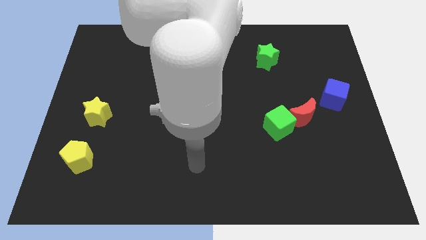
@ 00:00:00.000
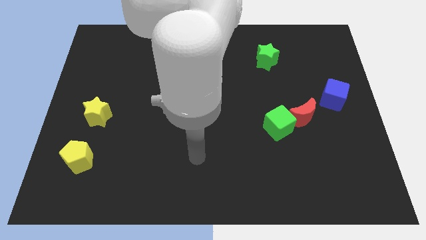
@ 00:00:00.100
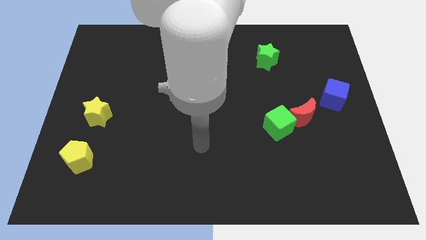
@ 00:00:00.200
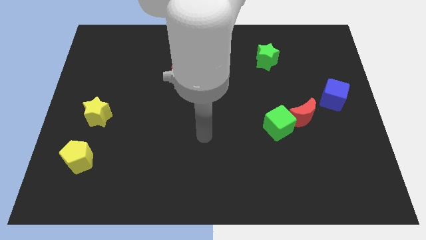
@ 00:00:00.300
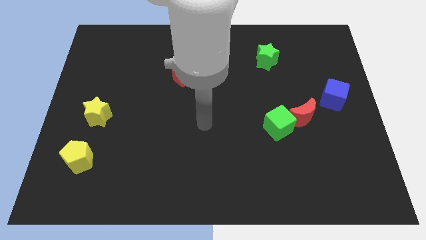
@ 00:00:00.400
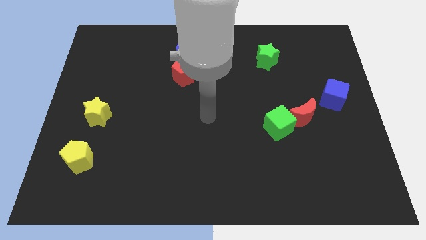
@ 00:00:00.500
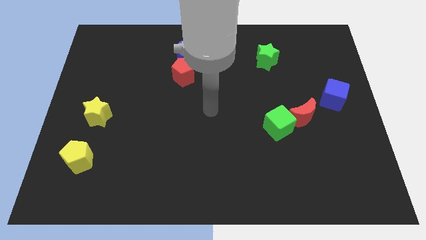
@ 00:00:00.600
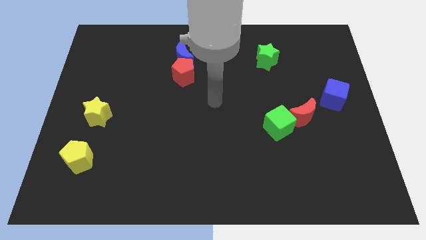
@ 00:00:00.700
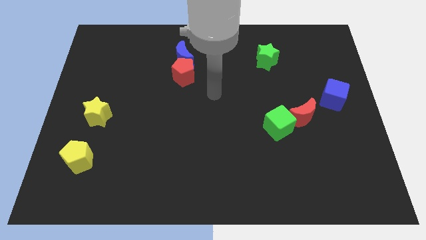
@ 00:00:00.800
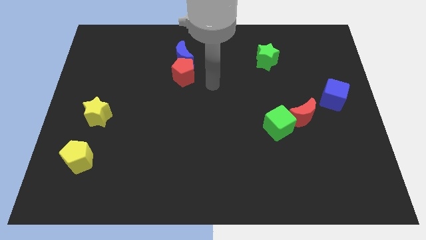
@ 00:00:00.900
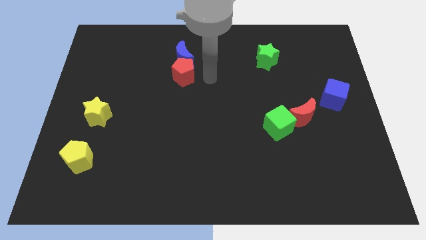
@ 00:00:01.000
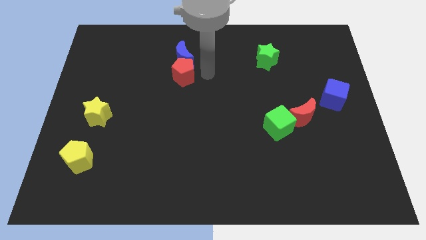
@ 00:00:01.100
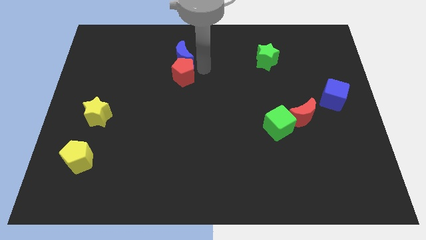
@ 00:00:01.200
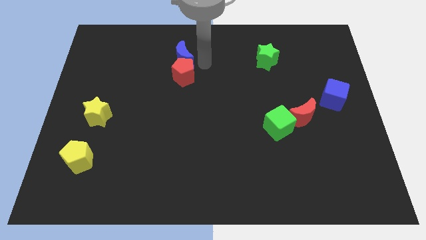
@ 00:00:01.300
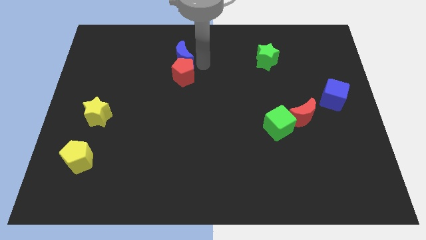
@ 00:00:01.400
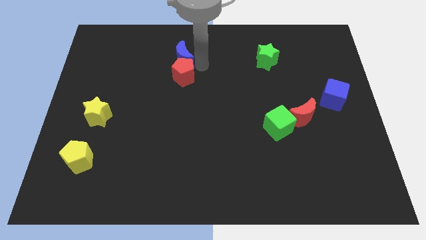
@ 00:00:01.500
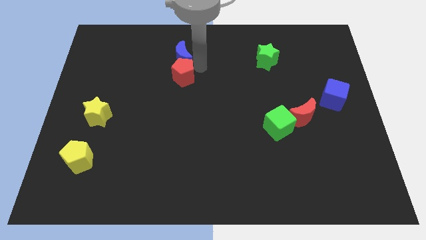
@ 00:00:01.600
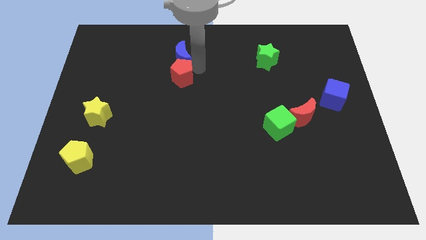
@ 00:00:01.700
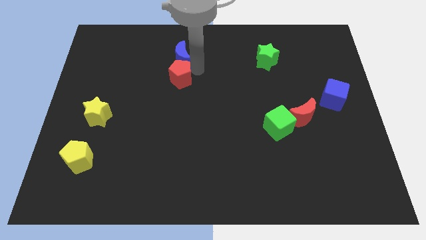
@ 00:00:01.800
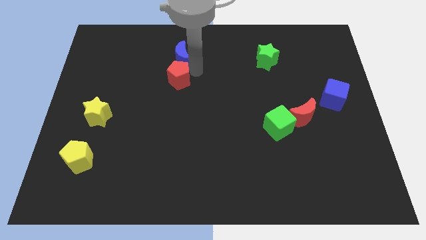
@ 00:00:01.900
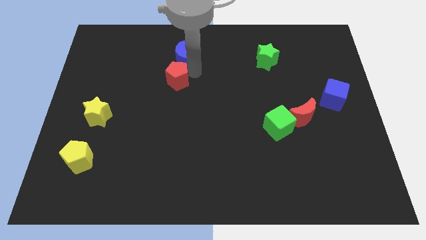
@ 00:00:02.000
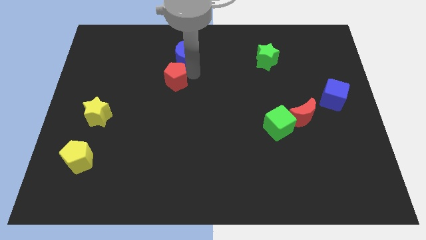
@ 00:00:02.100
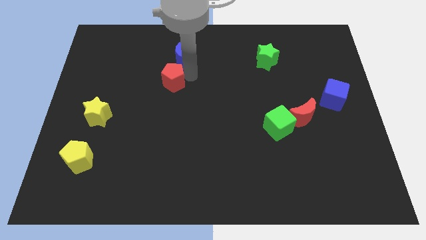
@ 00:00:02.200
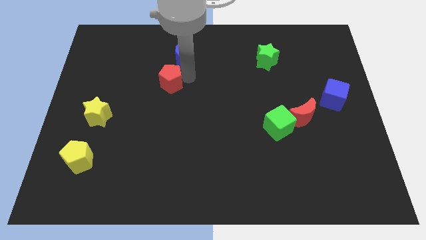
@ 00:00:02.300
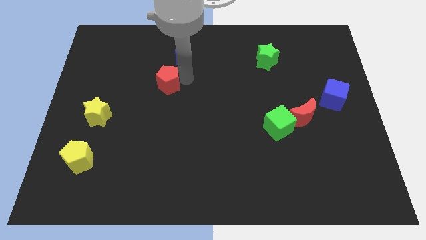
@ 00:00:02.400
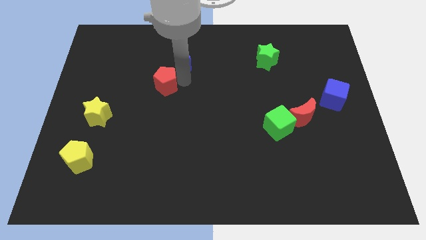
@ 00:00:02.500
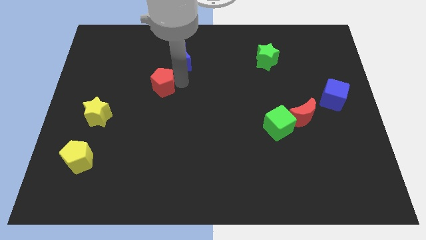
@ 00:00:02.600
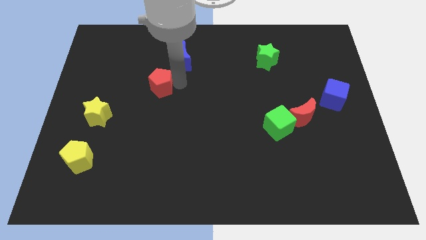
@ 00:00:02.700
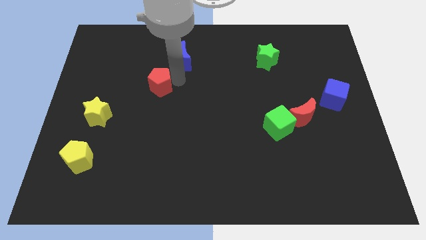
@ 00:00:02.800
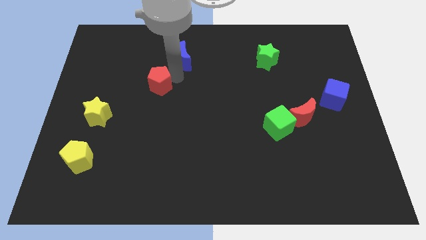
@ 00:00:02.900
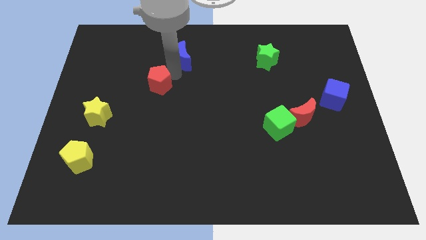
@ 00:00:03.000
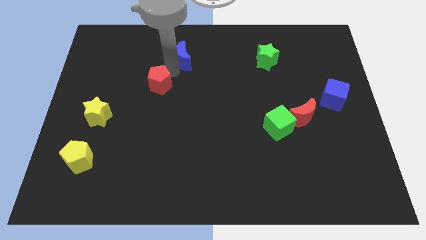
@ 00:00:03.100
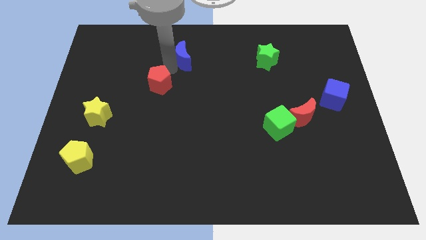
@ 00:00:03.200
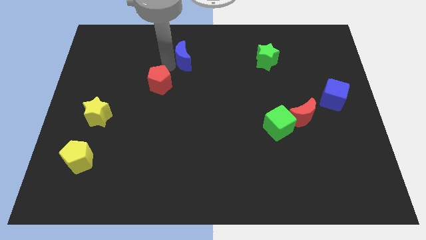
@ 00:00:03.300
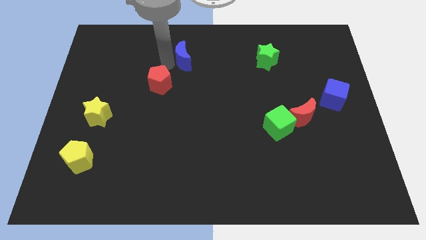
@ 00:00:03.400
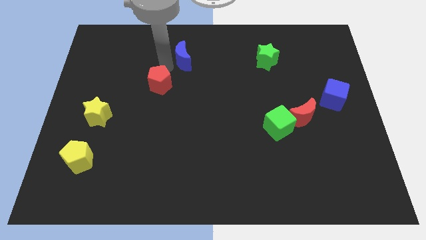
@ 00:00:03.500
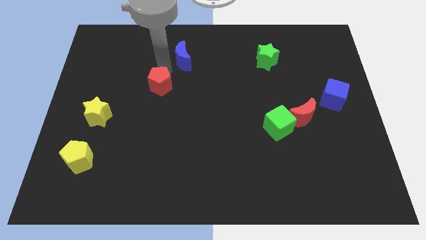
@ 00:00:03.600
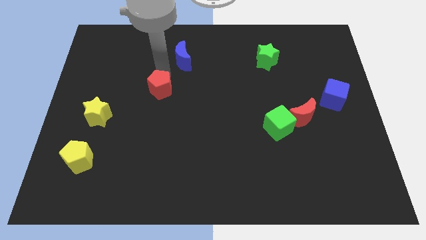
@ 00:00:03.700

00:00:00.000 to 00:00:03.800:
push the red pentagon downwards and left diagonally a little bit

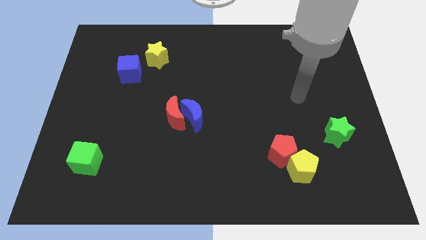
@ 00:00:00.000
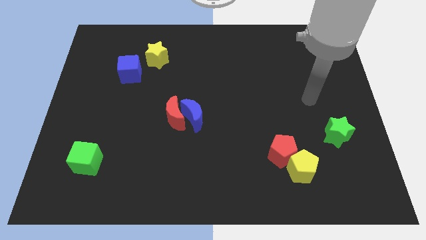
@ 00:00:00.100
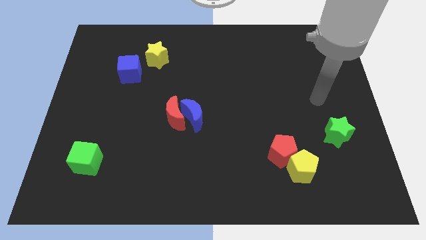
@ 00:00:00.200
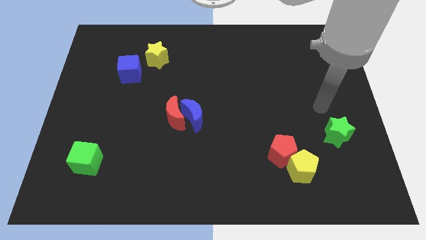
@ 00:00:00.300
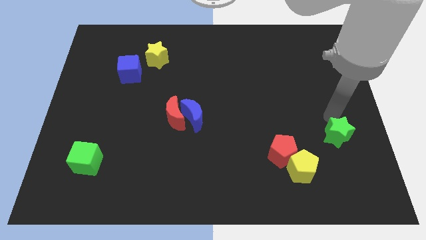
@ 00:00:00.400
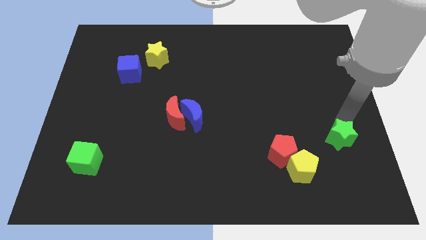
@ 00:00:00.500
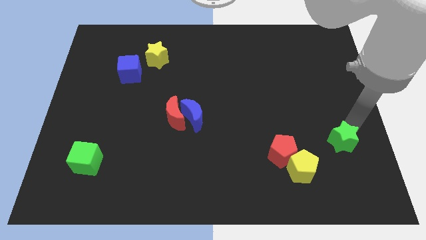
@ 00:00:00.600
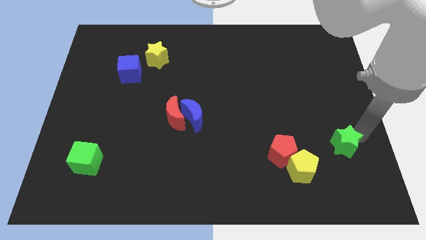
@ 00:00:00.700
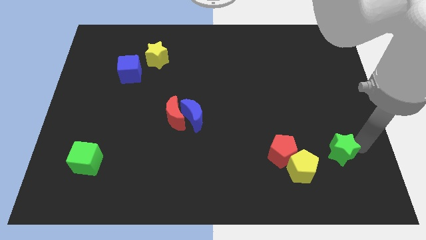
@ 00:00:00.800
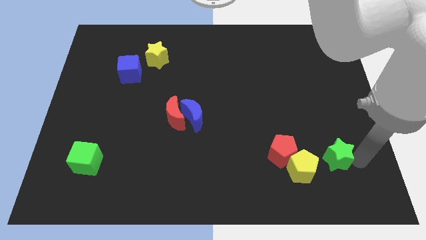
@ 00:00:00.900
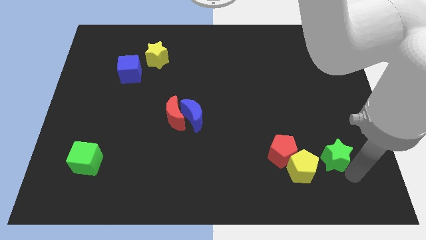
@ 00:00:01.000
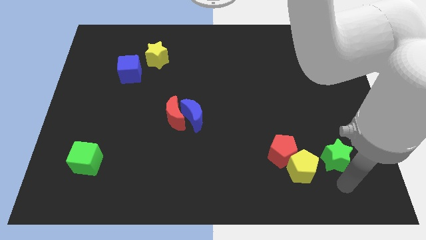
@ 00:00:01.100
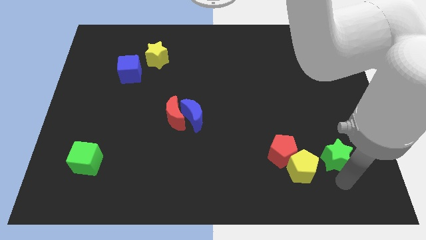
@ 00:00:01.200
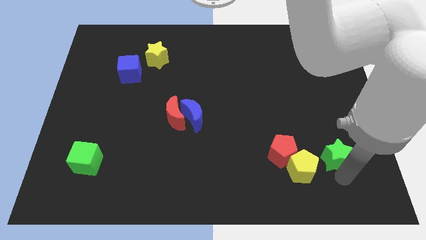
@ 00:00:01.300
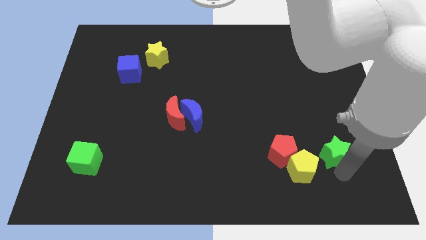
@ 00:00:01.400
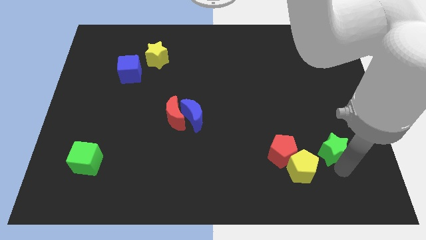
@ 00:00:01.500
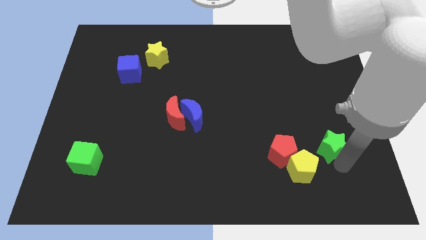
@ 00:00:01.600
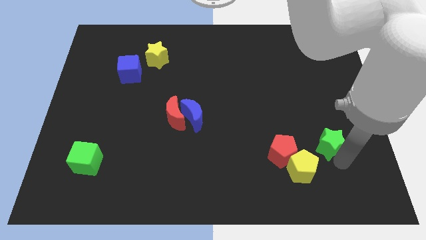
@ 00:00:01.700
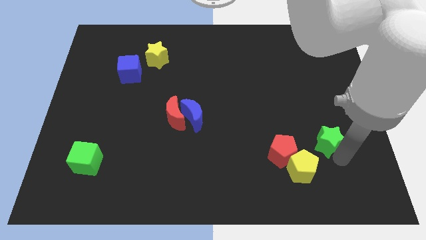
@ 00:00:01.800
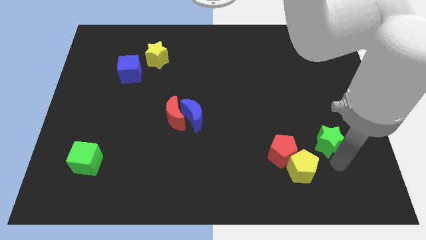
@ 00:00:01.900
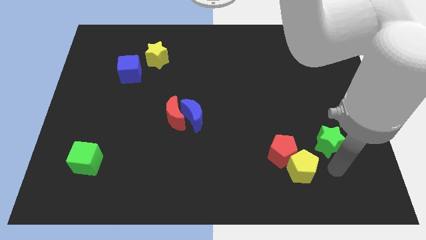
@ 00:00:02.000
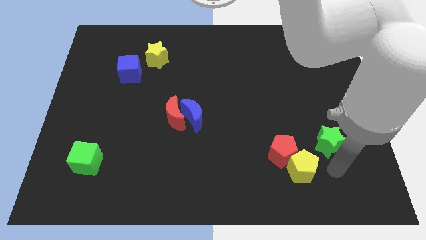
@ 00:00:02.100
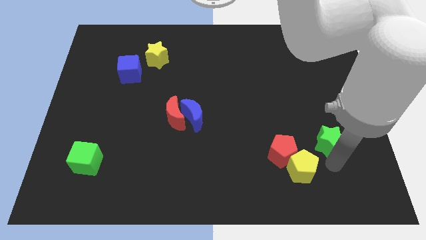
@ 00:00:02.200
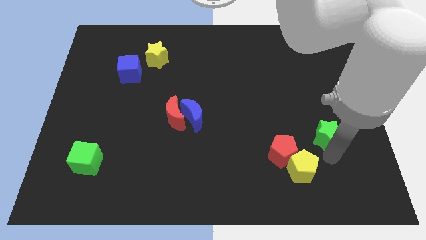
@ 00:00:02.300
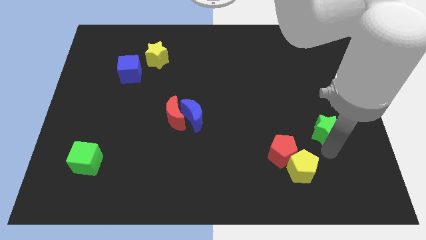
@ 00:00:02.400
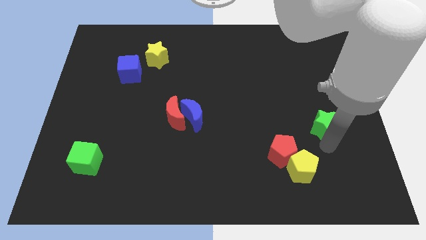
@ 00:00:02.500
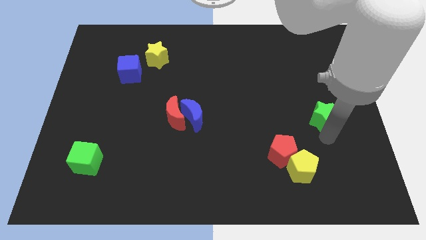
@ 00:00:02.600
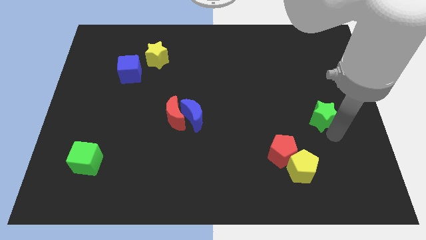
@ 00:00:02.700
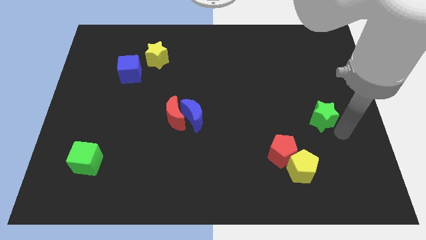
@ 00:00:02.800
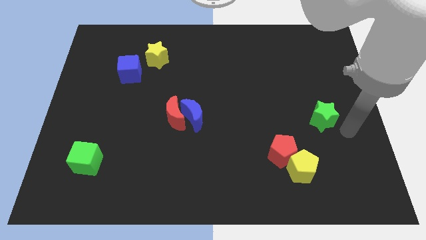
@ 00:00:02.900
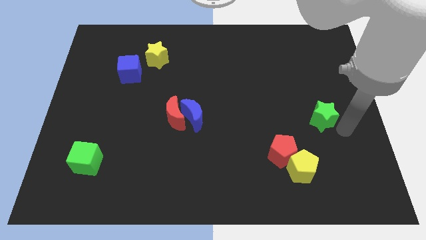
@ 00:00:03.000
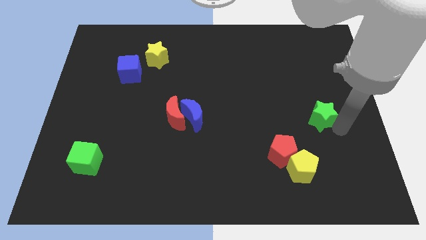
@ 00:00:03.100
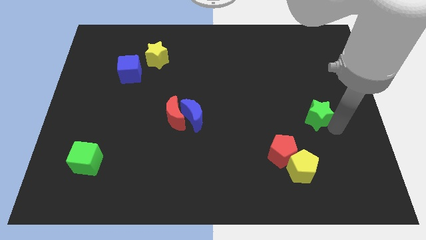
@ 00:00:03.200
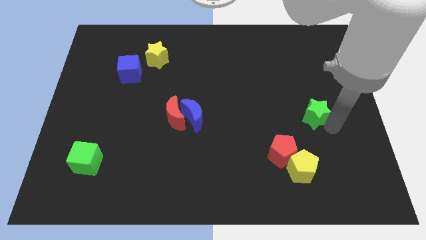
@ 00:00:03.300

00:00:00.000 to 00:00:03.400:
slightly push the green star up and then left

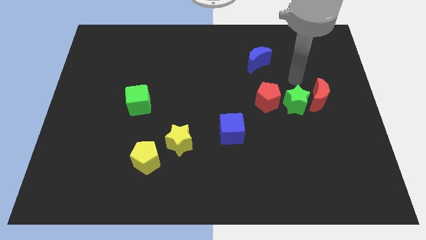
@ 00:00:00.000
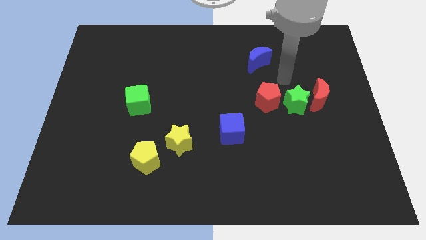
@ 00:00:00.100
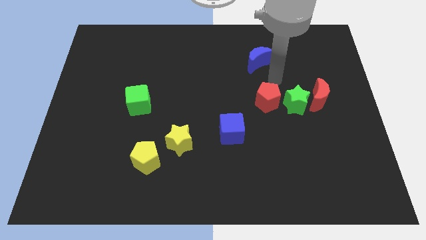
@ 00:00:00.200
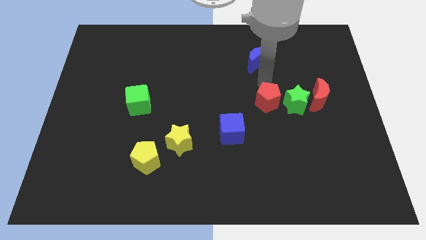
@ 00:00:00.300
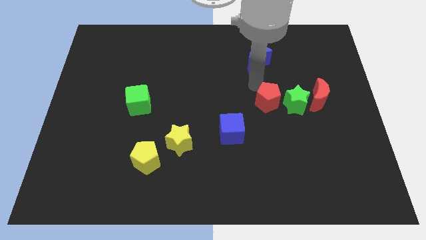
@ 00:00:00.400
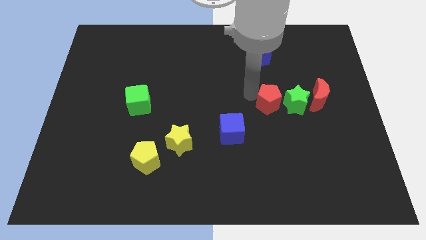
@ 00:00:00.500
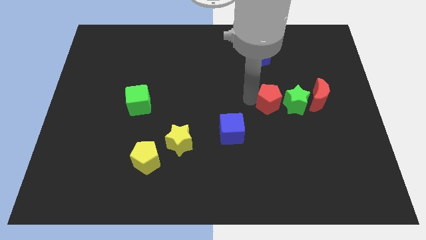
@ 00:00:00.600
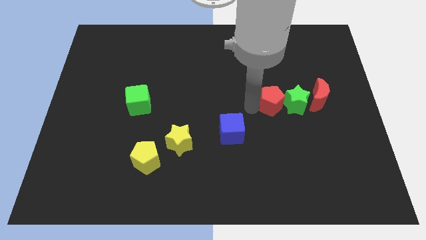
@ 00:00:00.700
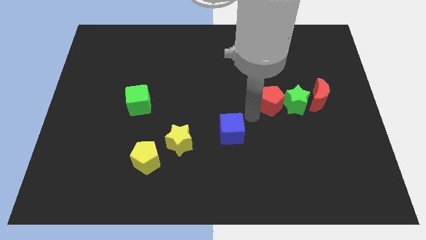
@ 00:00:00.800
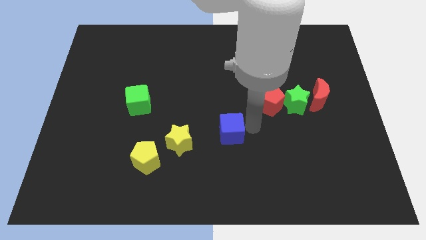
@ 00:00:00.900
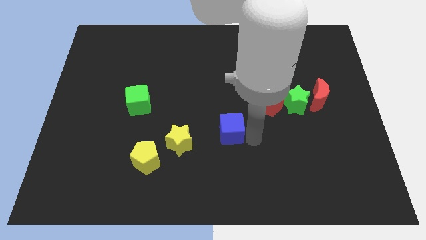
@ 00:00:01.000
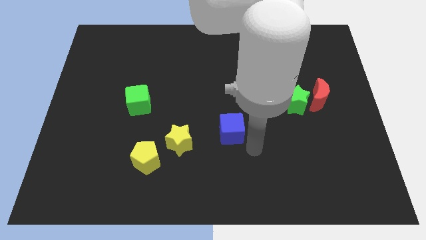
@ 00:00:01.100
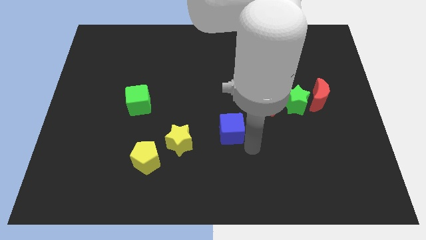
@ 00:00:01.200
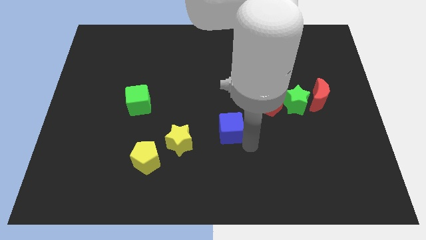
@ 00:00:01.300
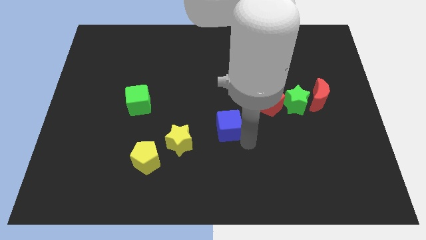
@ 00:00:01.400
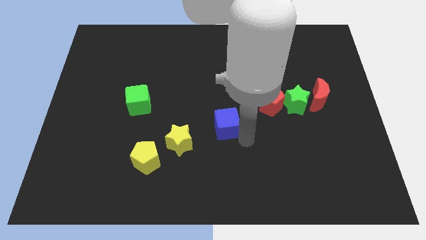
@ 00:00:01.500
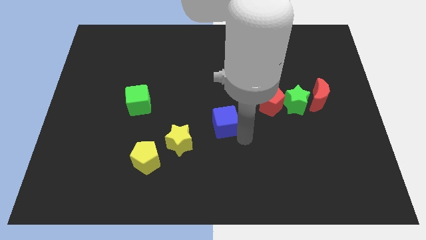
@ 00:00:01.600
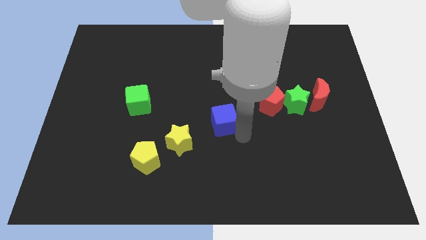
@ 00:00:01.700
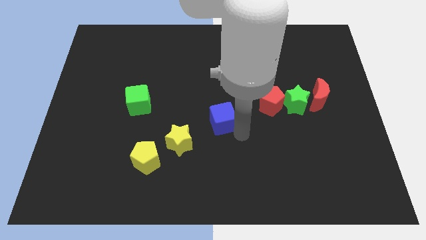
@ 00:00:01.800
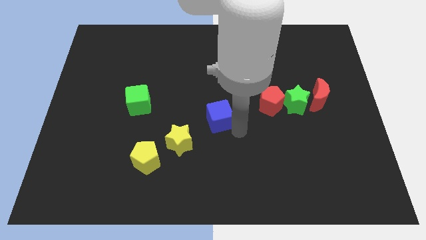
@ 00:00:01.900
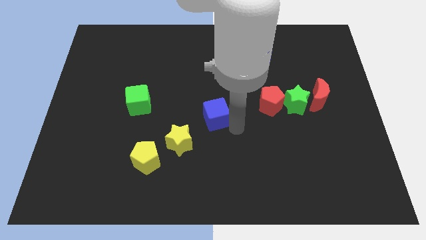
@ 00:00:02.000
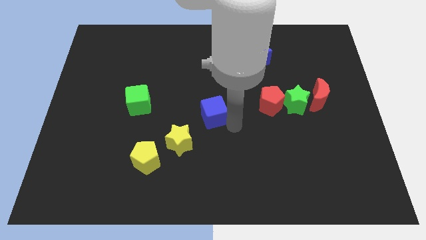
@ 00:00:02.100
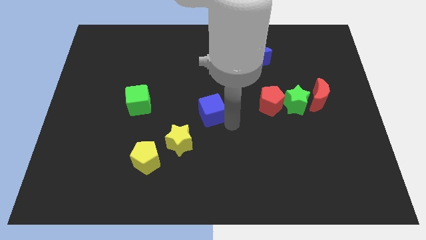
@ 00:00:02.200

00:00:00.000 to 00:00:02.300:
push the blue cube upwards and left a little bit
